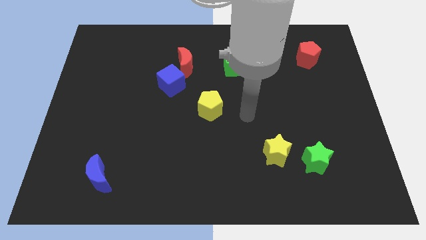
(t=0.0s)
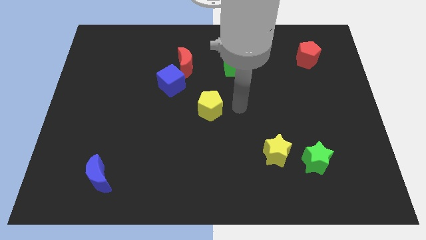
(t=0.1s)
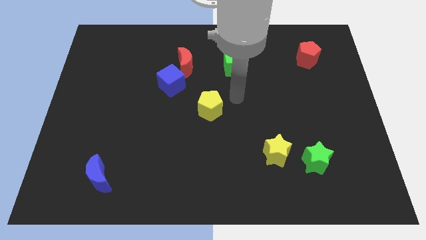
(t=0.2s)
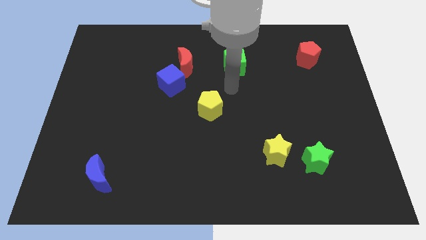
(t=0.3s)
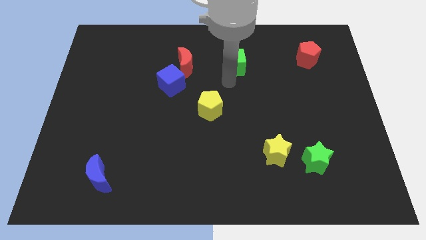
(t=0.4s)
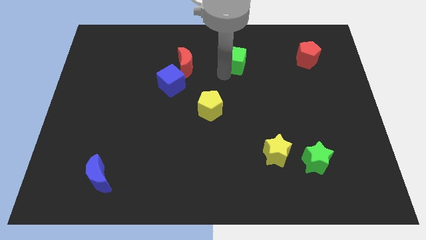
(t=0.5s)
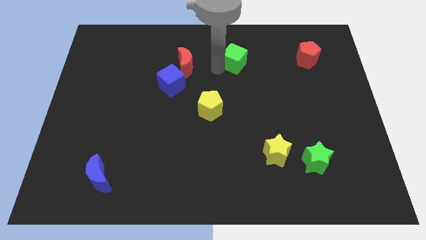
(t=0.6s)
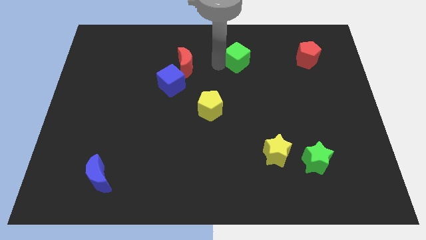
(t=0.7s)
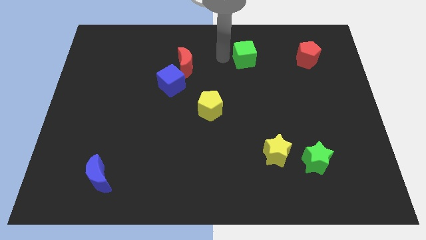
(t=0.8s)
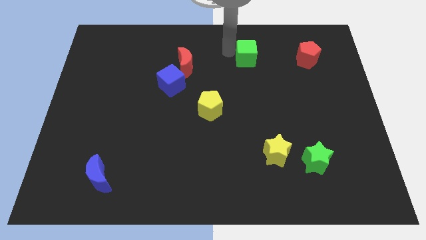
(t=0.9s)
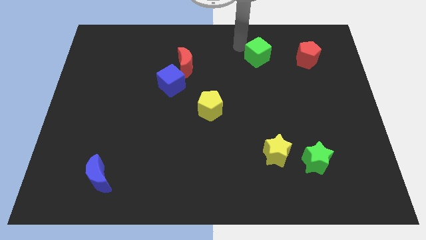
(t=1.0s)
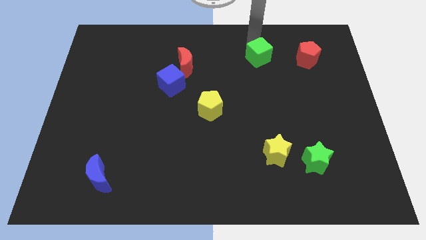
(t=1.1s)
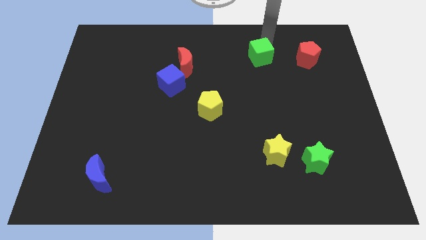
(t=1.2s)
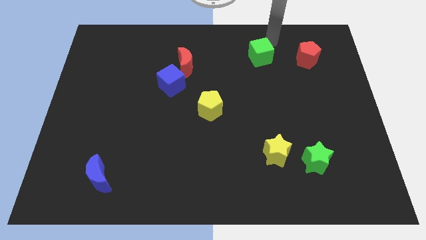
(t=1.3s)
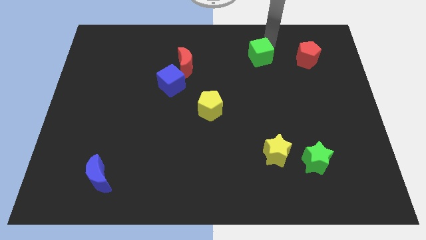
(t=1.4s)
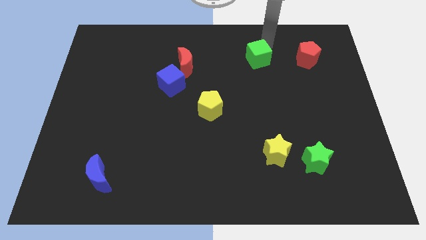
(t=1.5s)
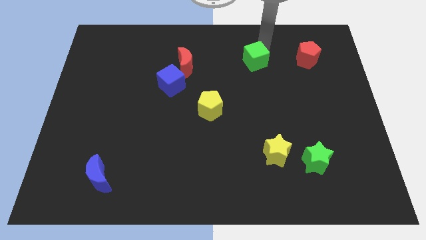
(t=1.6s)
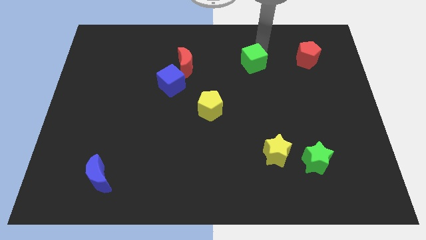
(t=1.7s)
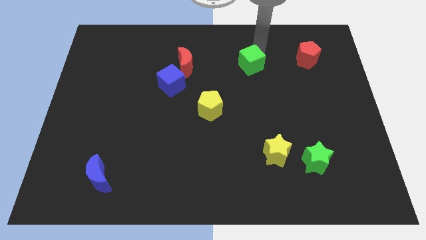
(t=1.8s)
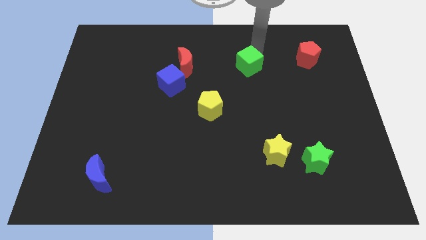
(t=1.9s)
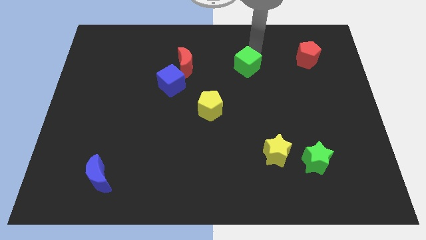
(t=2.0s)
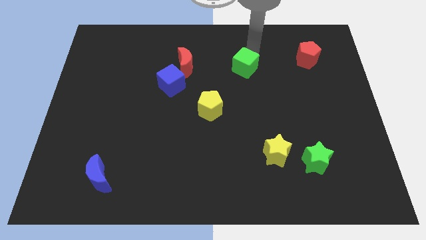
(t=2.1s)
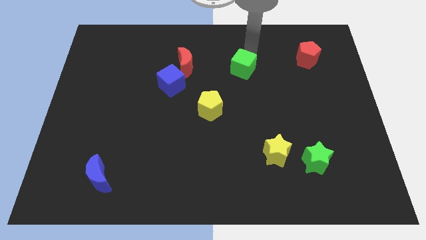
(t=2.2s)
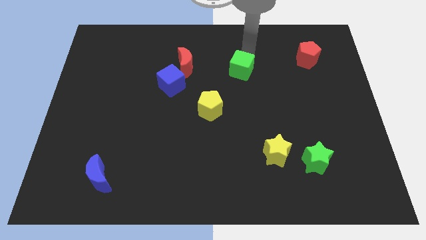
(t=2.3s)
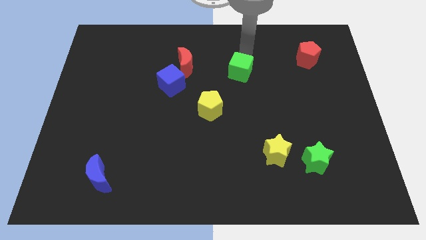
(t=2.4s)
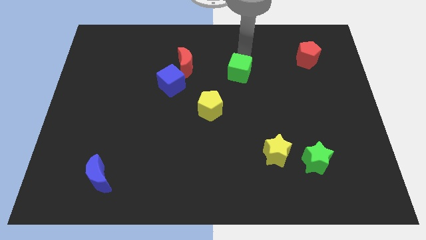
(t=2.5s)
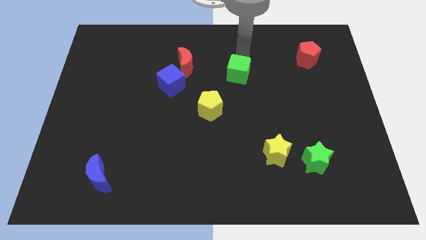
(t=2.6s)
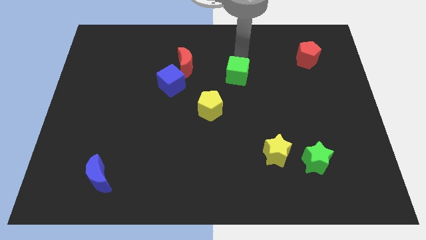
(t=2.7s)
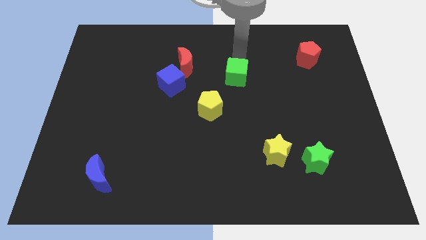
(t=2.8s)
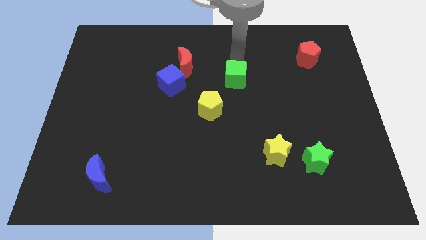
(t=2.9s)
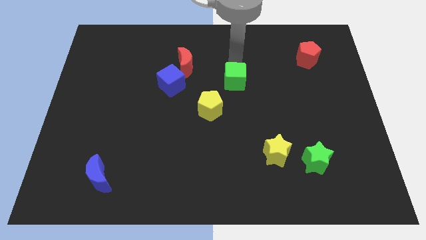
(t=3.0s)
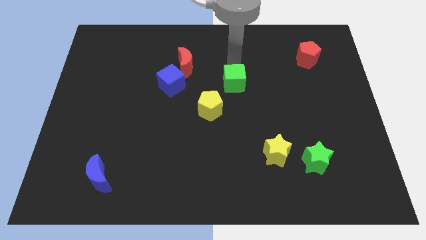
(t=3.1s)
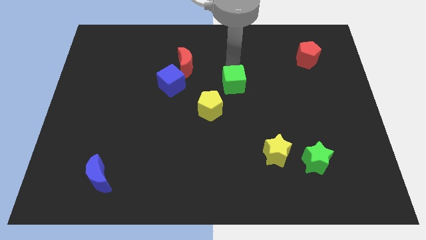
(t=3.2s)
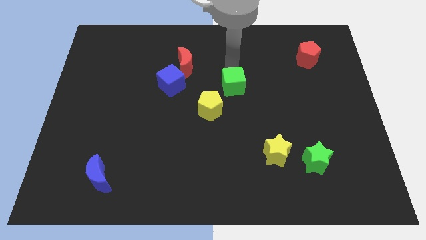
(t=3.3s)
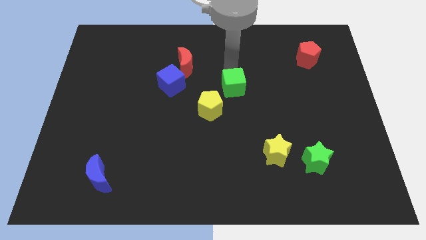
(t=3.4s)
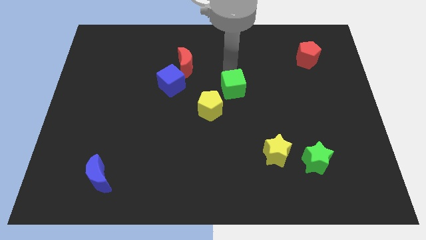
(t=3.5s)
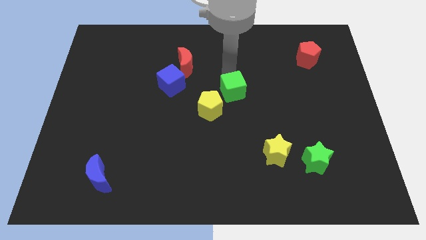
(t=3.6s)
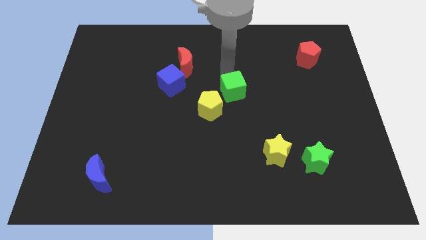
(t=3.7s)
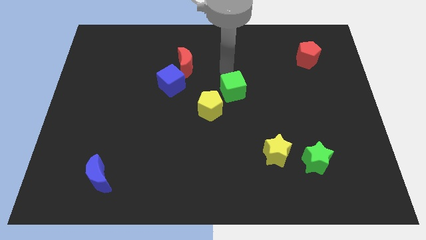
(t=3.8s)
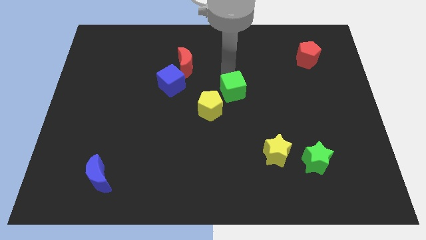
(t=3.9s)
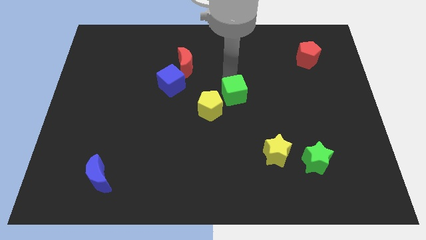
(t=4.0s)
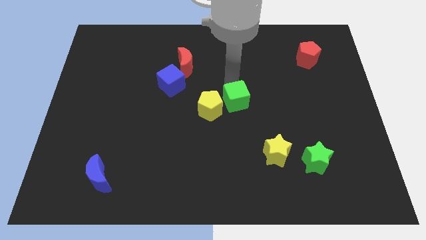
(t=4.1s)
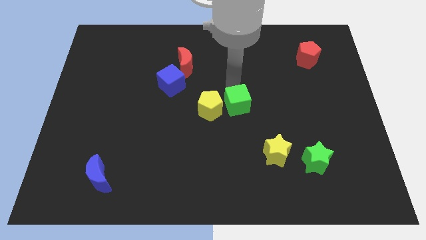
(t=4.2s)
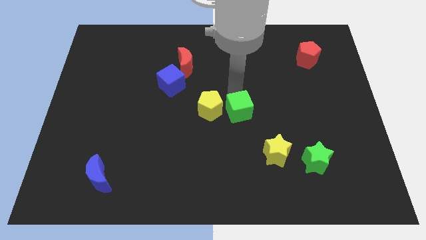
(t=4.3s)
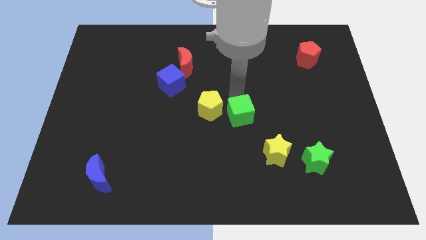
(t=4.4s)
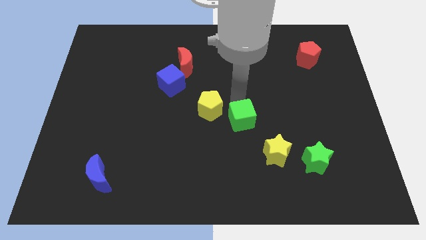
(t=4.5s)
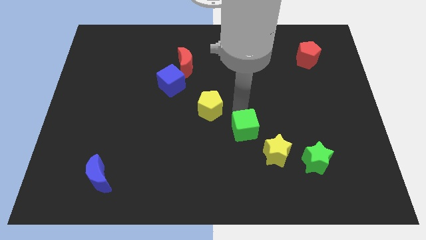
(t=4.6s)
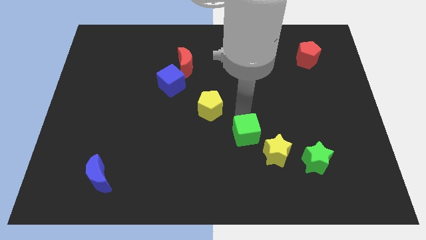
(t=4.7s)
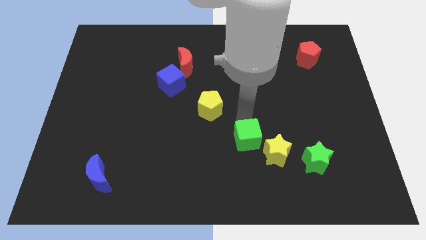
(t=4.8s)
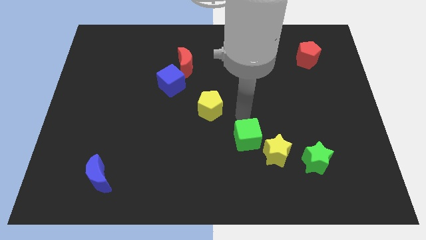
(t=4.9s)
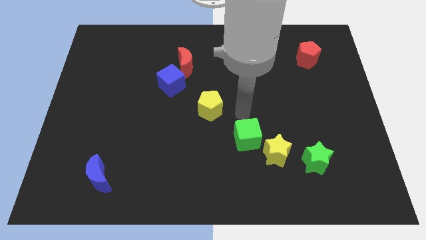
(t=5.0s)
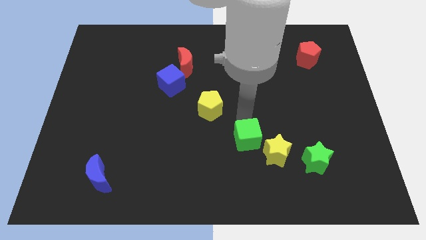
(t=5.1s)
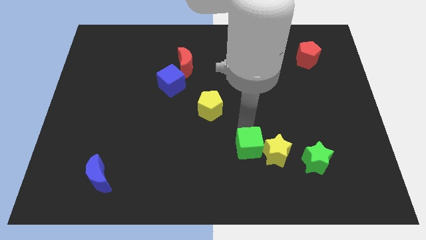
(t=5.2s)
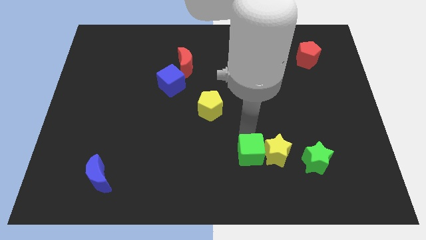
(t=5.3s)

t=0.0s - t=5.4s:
slide the green cube diagonally down and to the left of the yellow star

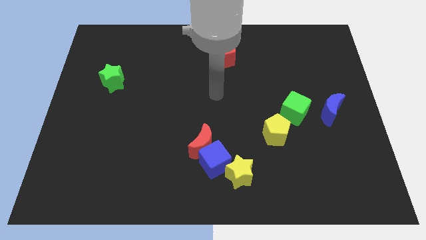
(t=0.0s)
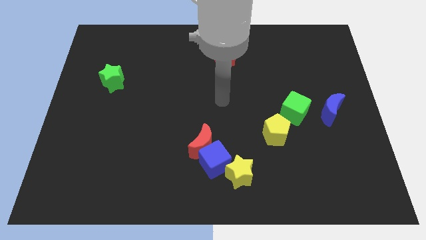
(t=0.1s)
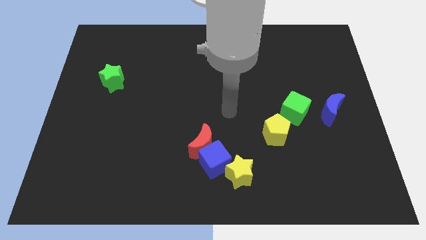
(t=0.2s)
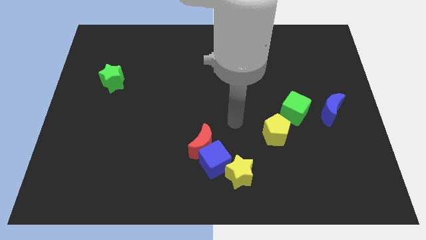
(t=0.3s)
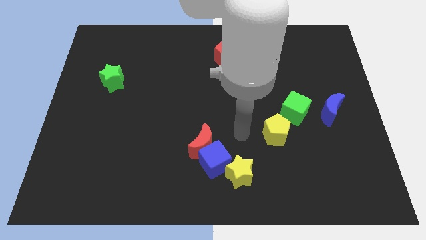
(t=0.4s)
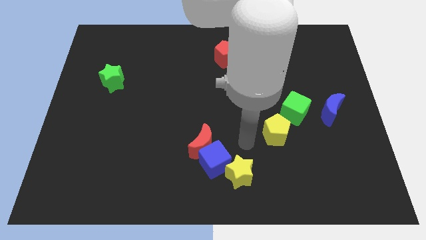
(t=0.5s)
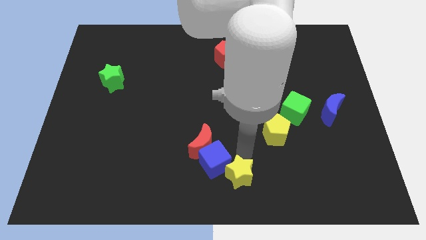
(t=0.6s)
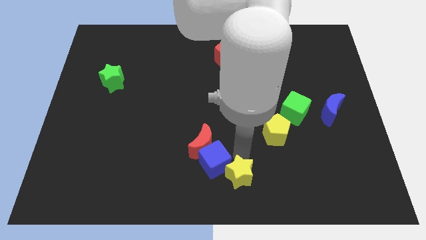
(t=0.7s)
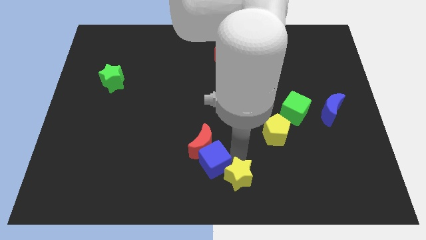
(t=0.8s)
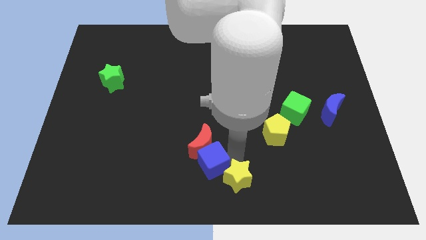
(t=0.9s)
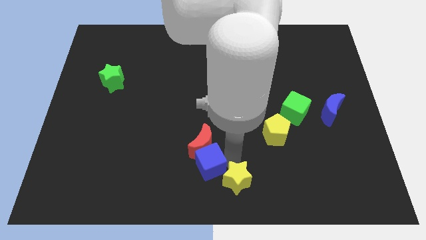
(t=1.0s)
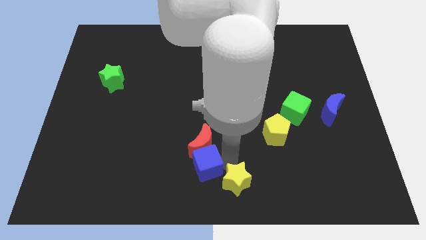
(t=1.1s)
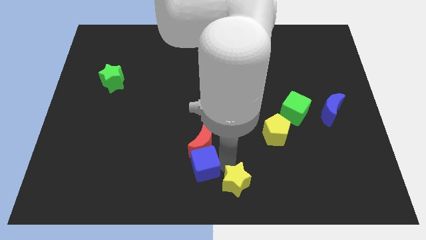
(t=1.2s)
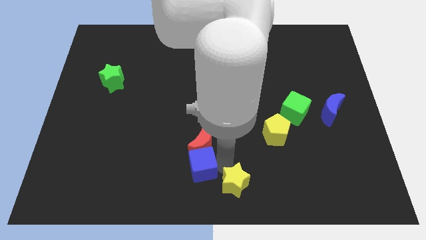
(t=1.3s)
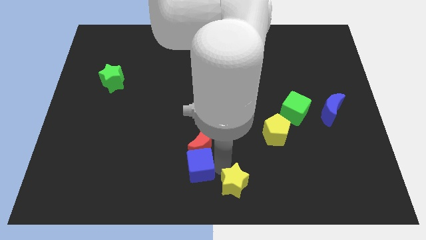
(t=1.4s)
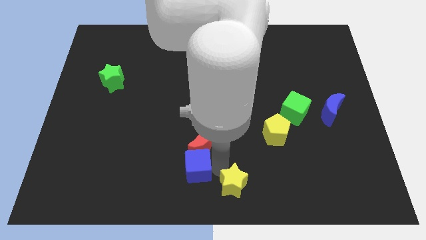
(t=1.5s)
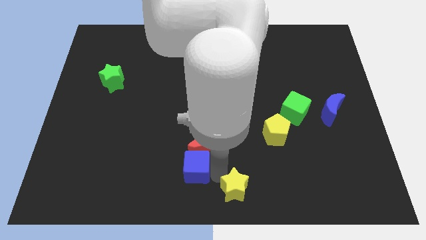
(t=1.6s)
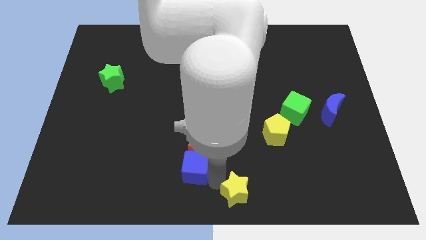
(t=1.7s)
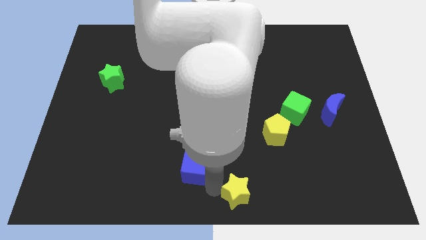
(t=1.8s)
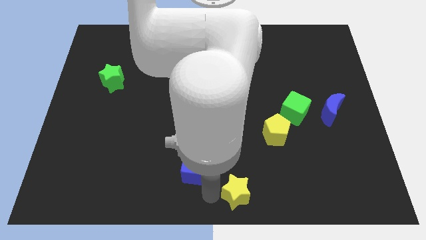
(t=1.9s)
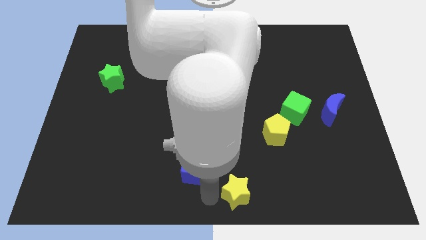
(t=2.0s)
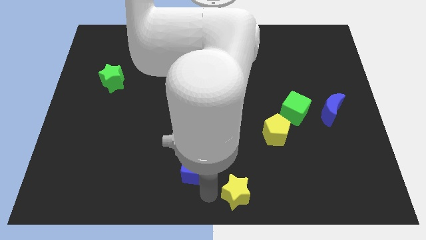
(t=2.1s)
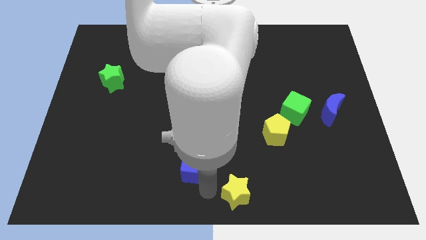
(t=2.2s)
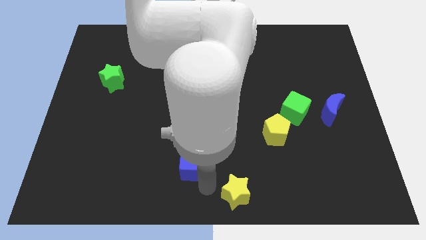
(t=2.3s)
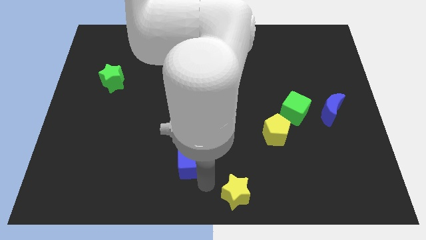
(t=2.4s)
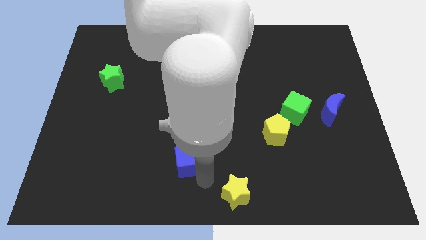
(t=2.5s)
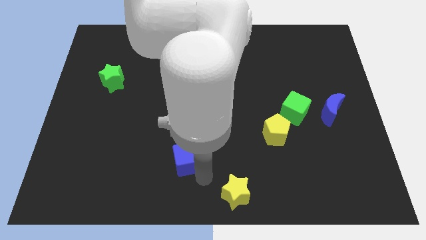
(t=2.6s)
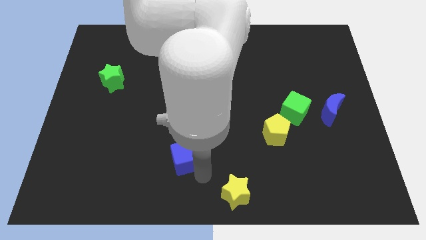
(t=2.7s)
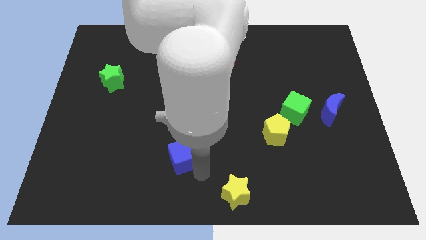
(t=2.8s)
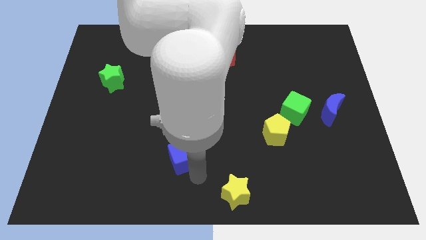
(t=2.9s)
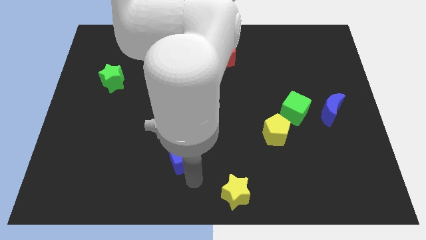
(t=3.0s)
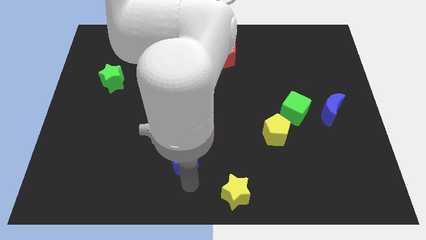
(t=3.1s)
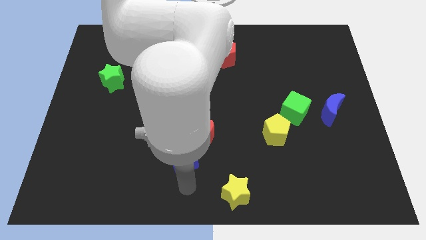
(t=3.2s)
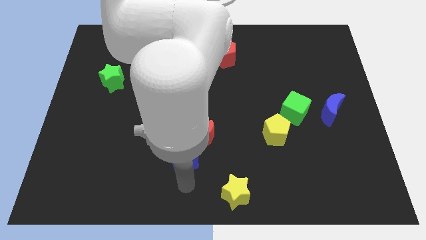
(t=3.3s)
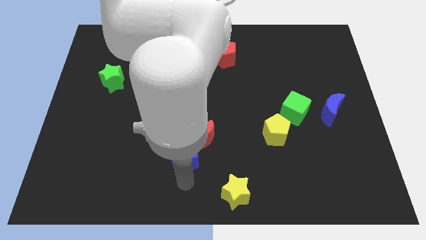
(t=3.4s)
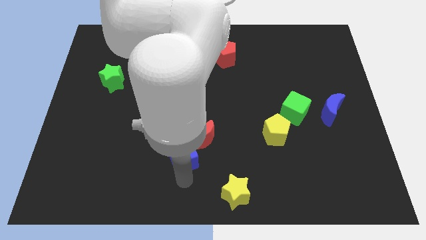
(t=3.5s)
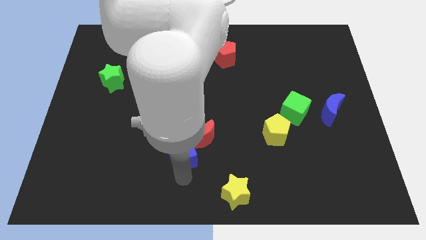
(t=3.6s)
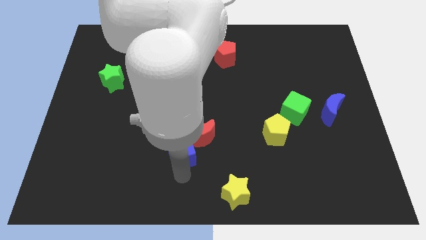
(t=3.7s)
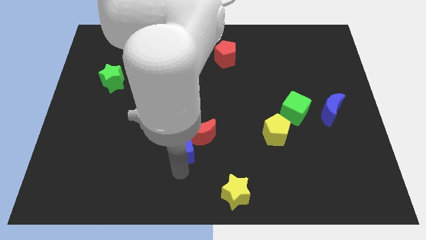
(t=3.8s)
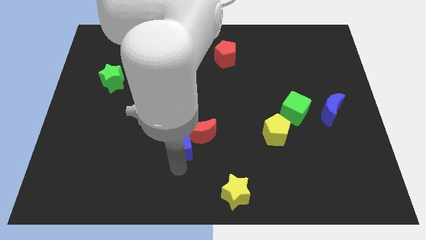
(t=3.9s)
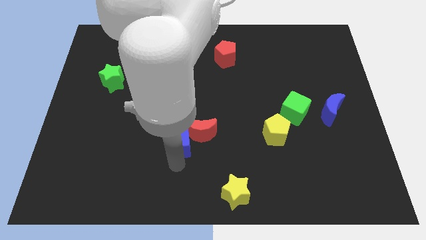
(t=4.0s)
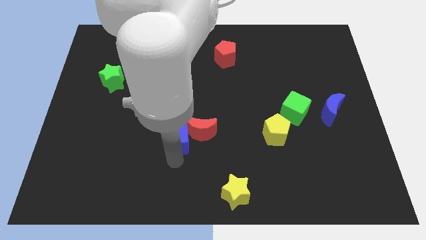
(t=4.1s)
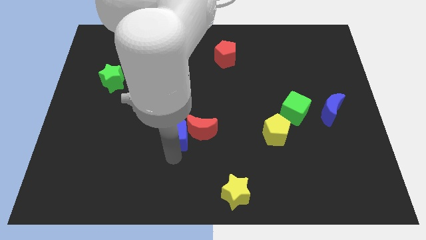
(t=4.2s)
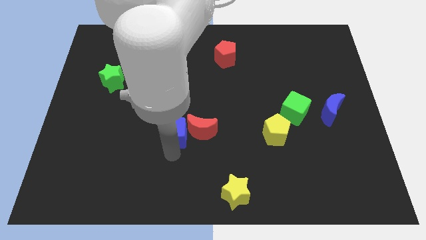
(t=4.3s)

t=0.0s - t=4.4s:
move the blue cube to the top left of the red moon
